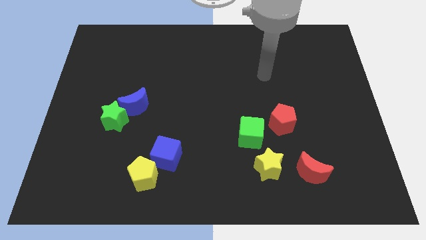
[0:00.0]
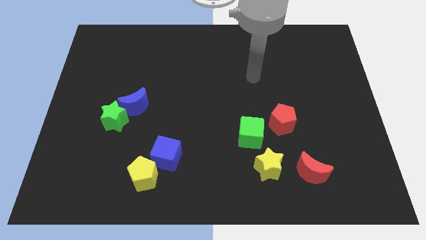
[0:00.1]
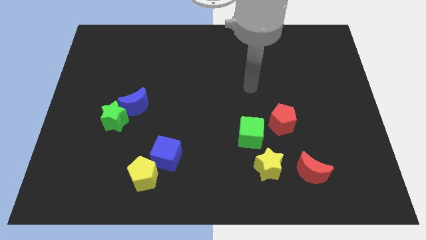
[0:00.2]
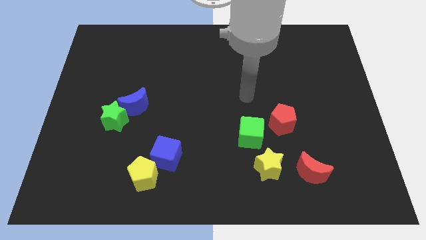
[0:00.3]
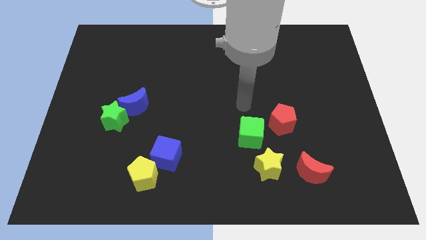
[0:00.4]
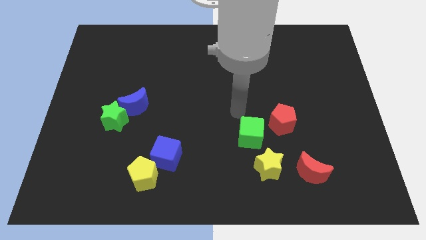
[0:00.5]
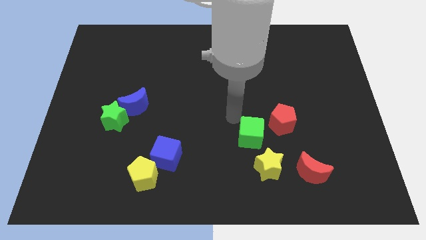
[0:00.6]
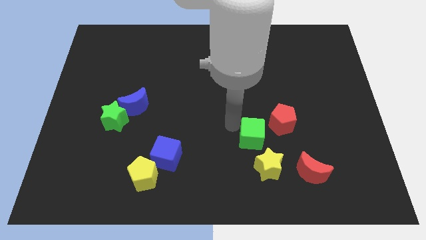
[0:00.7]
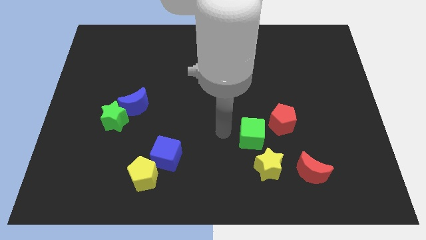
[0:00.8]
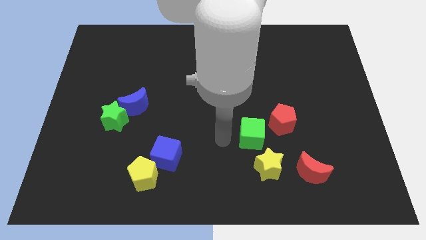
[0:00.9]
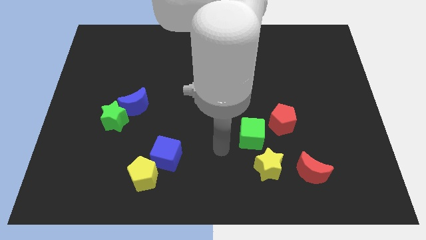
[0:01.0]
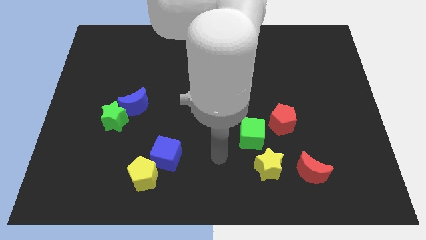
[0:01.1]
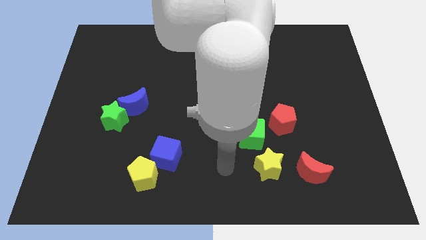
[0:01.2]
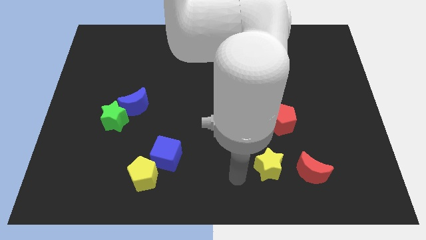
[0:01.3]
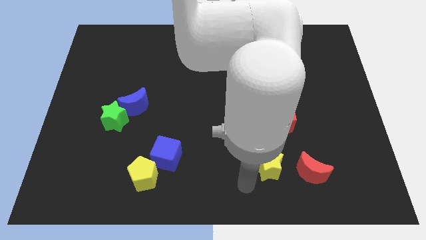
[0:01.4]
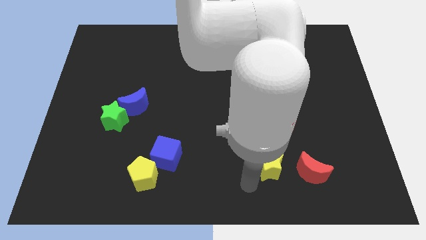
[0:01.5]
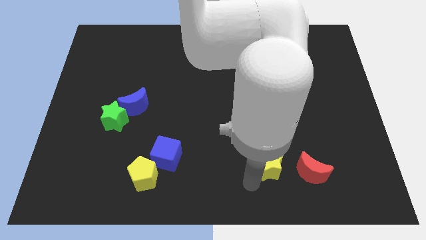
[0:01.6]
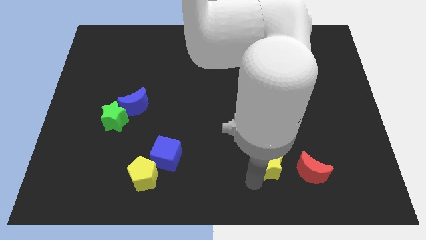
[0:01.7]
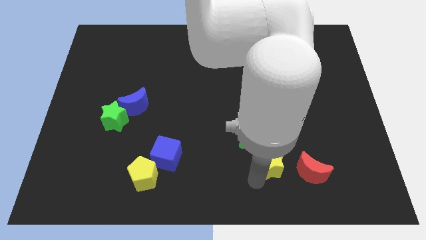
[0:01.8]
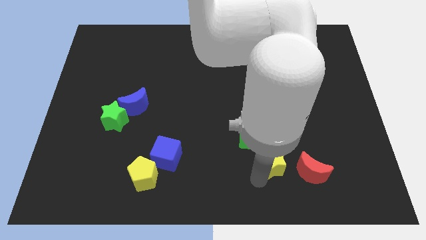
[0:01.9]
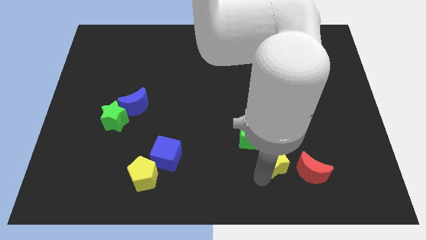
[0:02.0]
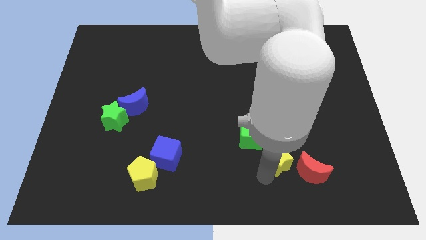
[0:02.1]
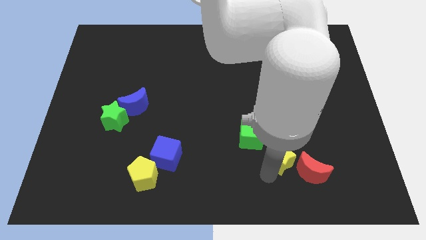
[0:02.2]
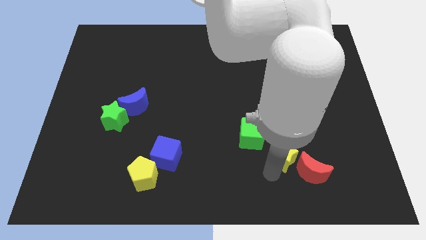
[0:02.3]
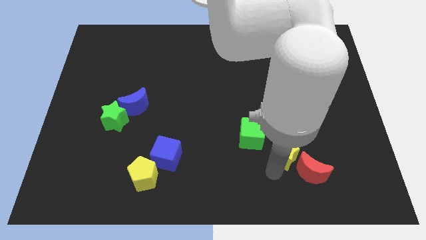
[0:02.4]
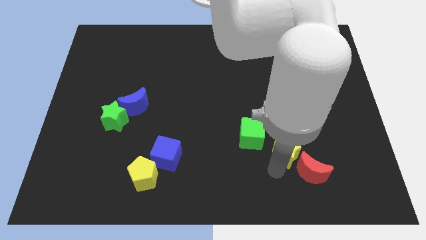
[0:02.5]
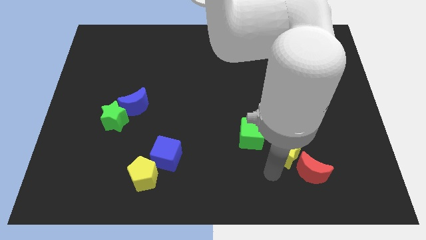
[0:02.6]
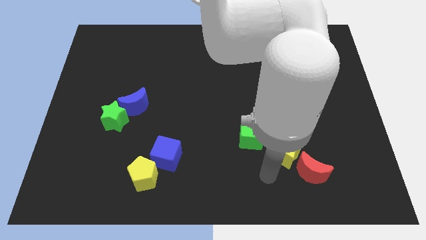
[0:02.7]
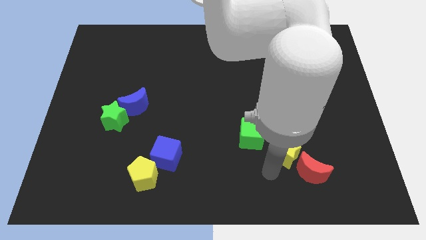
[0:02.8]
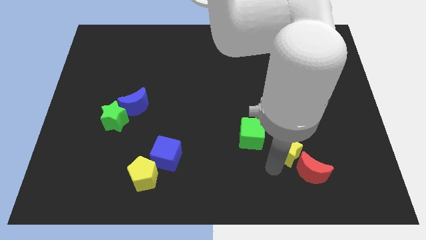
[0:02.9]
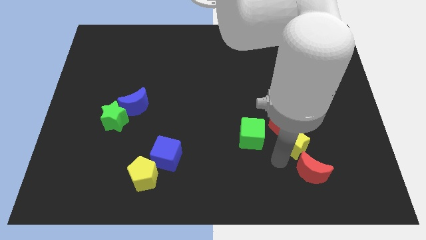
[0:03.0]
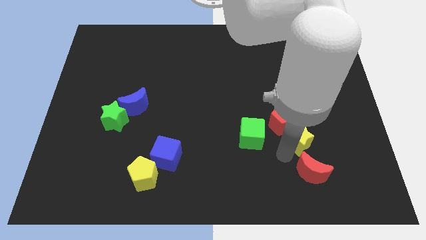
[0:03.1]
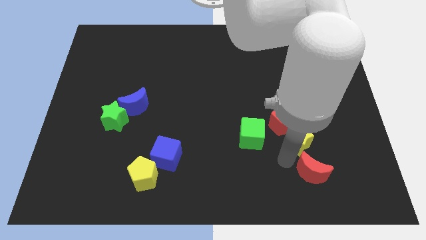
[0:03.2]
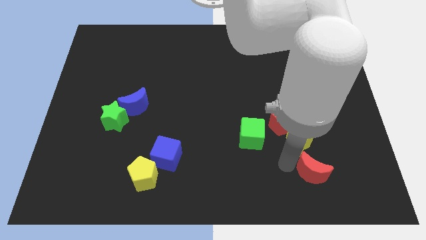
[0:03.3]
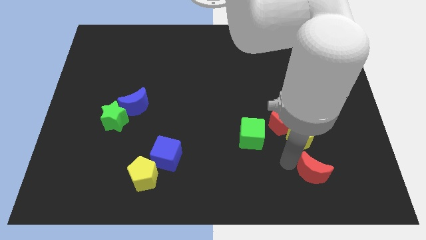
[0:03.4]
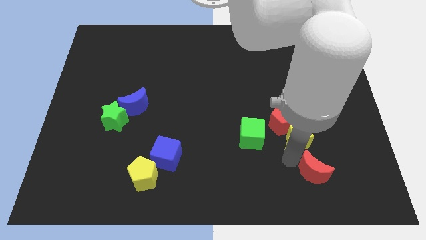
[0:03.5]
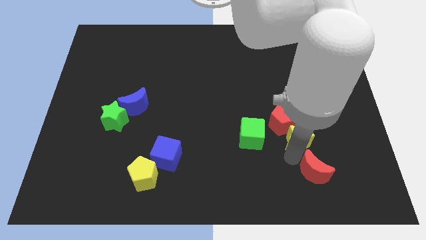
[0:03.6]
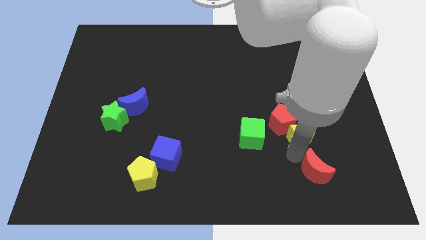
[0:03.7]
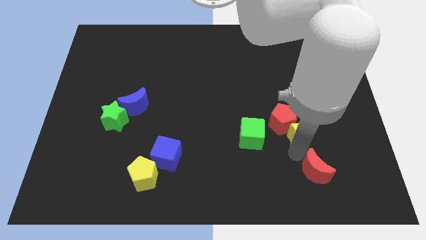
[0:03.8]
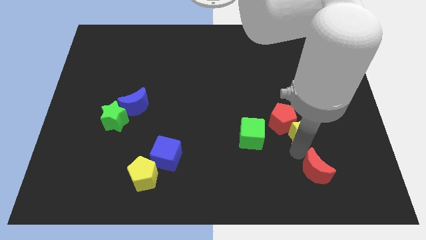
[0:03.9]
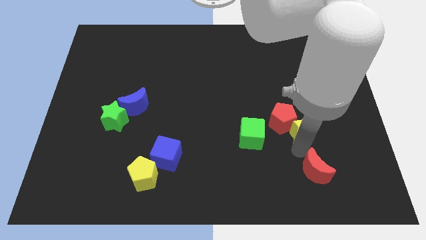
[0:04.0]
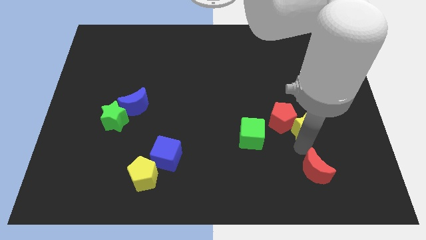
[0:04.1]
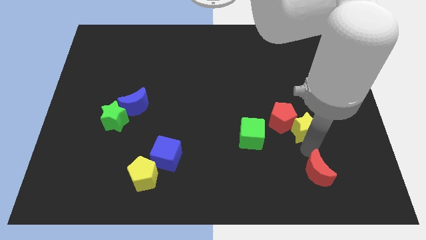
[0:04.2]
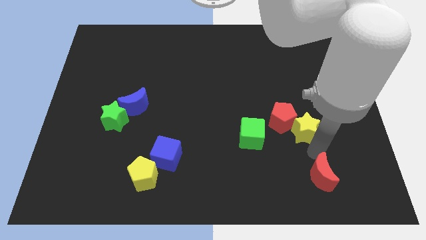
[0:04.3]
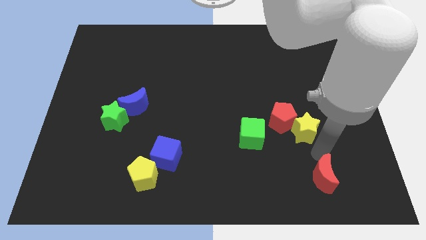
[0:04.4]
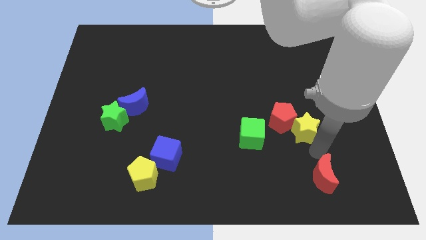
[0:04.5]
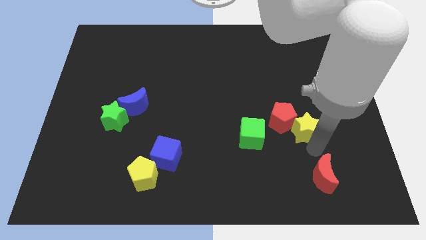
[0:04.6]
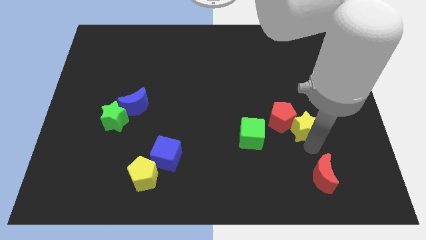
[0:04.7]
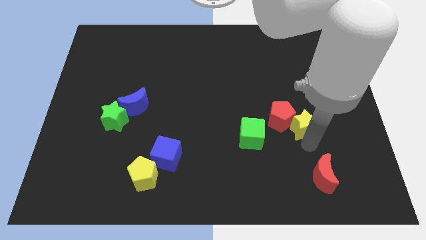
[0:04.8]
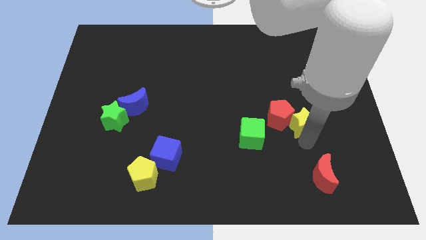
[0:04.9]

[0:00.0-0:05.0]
push the yellow star a little upwards

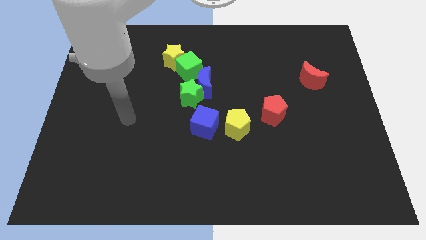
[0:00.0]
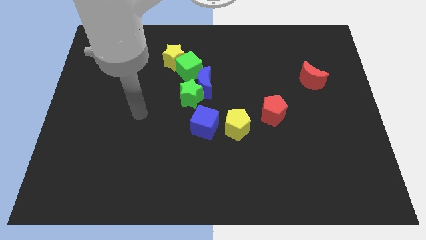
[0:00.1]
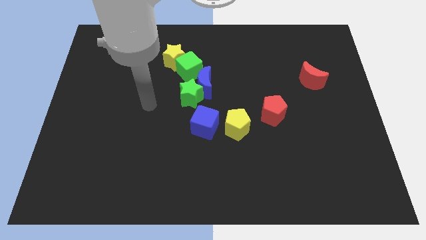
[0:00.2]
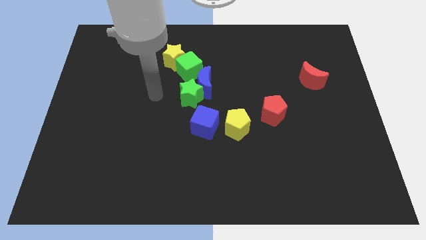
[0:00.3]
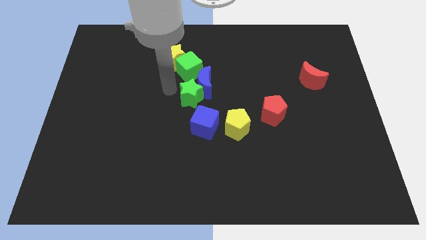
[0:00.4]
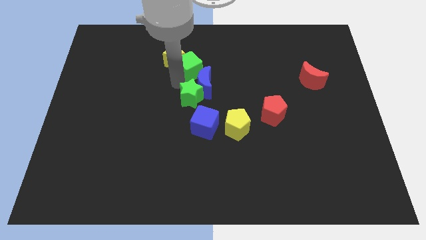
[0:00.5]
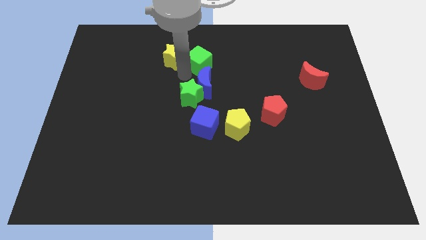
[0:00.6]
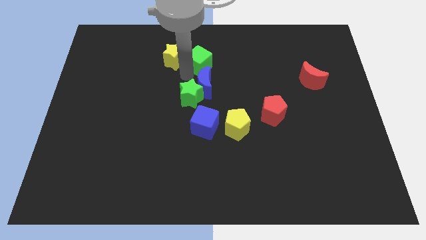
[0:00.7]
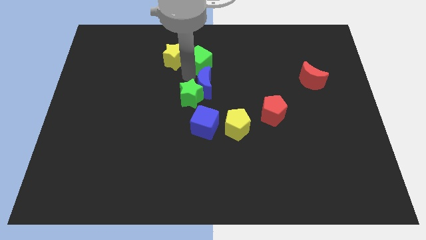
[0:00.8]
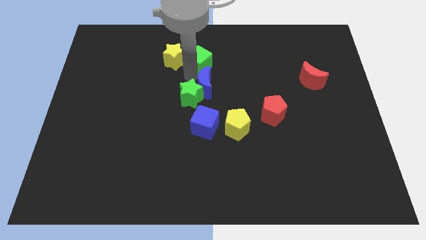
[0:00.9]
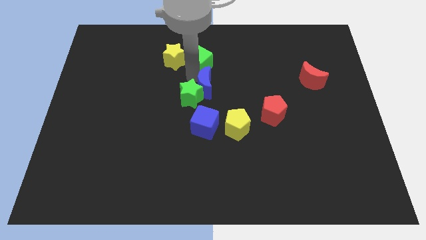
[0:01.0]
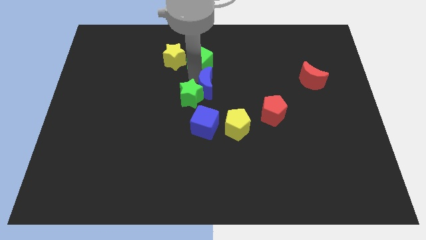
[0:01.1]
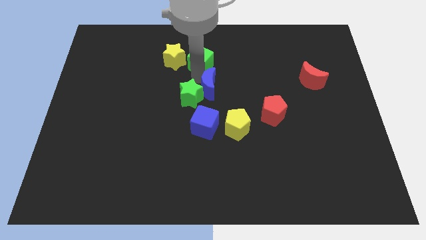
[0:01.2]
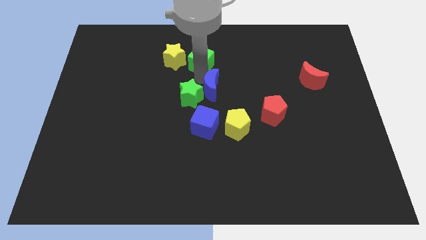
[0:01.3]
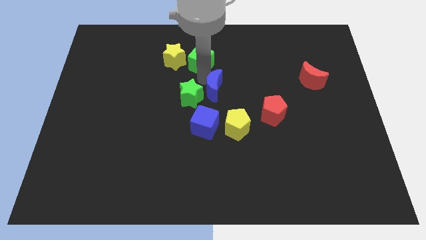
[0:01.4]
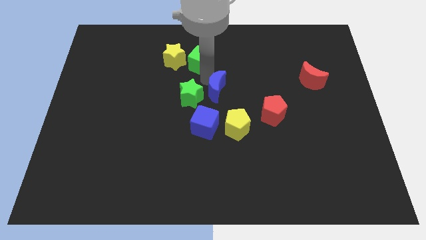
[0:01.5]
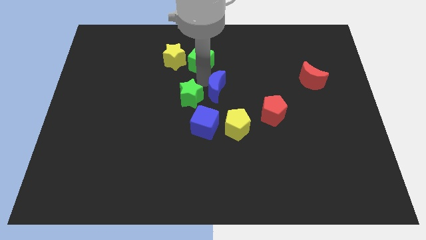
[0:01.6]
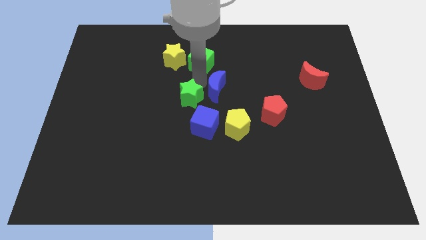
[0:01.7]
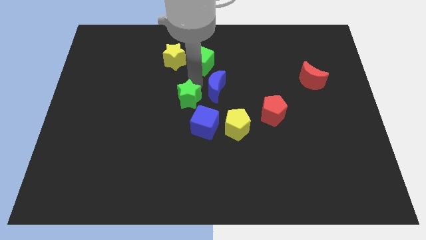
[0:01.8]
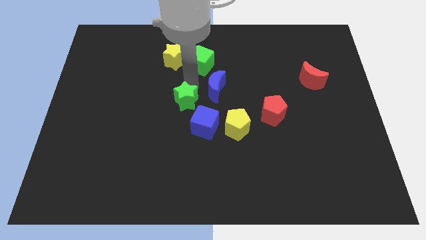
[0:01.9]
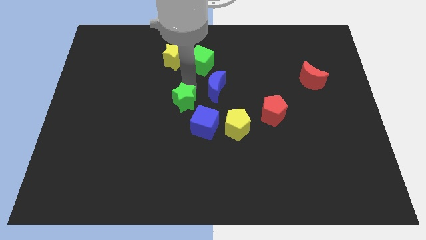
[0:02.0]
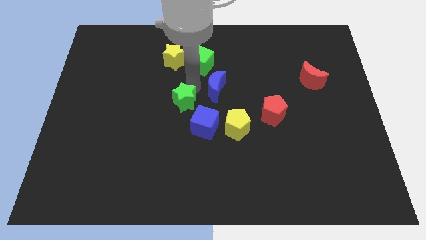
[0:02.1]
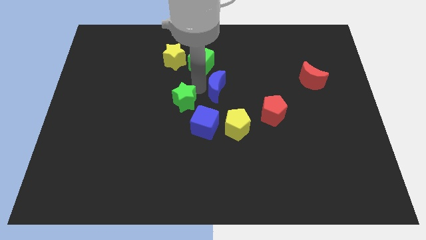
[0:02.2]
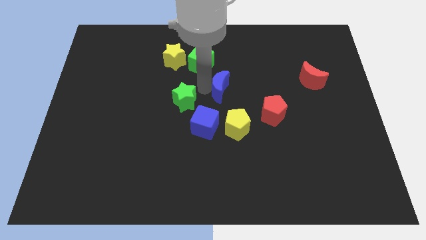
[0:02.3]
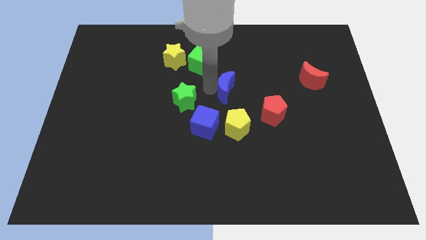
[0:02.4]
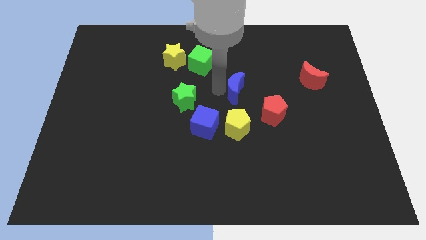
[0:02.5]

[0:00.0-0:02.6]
slightly push the blue moon right

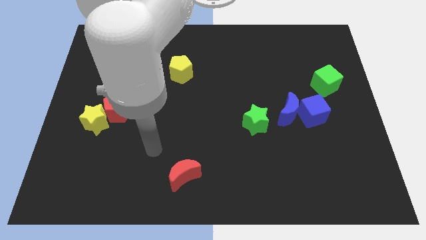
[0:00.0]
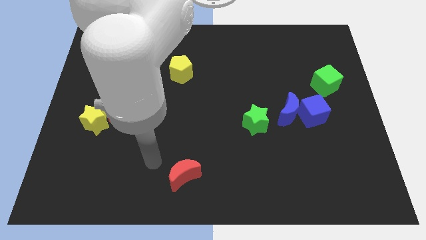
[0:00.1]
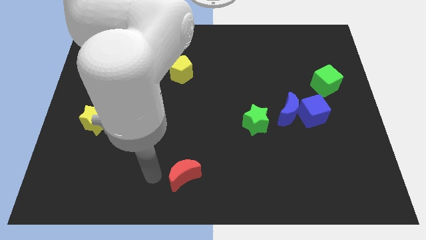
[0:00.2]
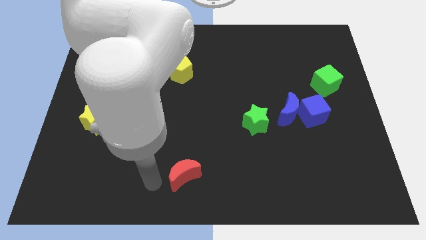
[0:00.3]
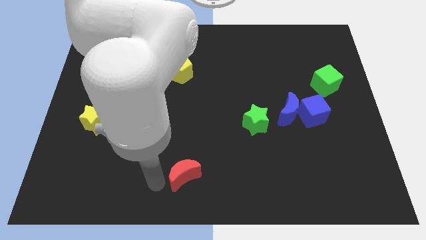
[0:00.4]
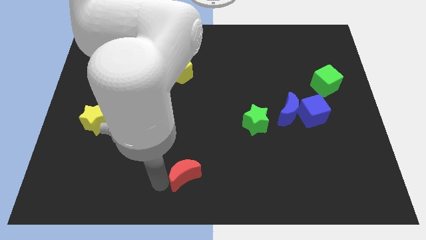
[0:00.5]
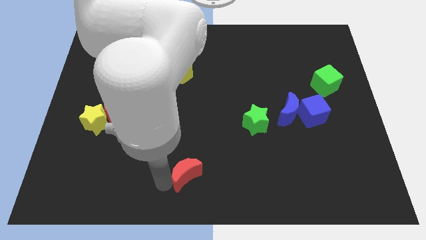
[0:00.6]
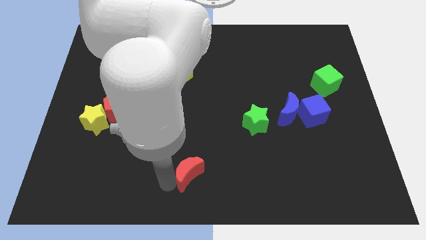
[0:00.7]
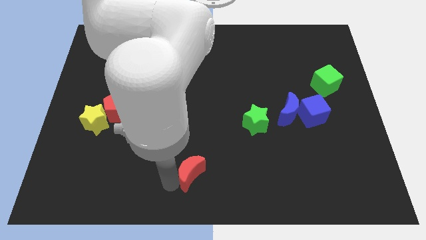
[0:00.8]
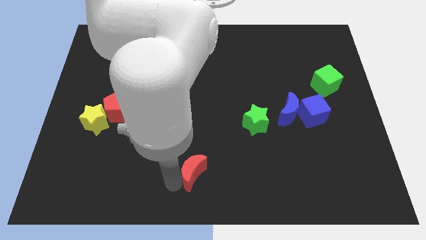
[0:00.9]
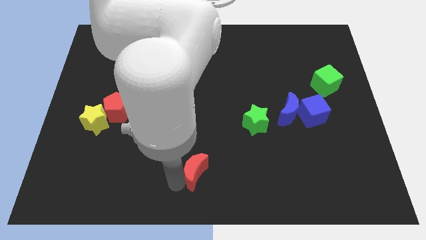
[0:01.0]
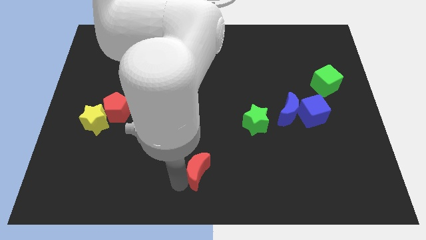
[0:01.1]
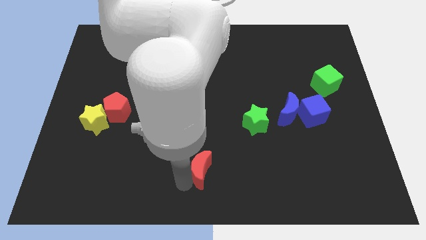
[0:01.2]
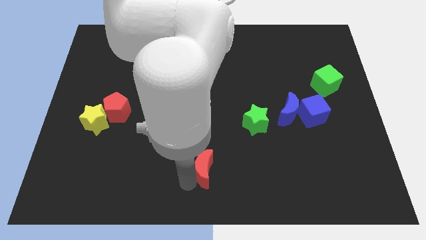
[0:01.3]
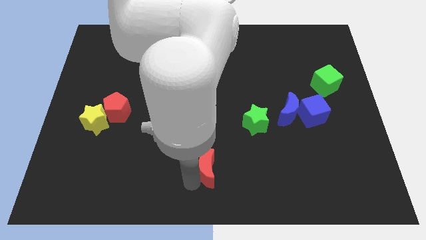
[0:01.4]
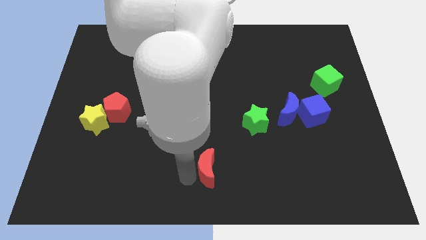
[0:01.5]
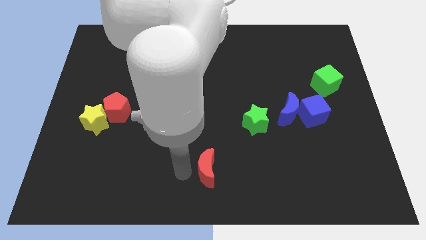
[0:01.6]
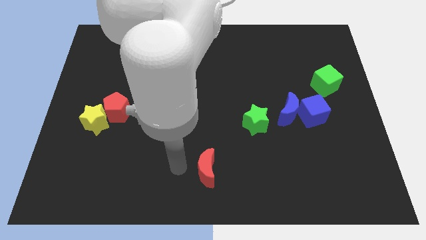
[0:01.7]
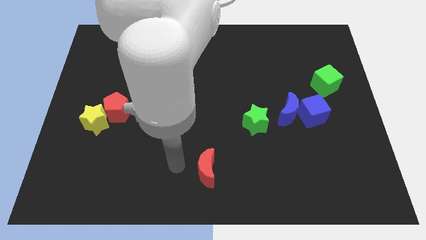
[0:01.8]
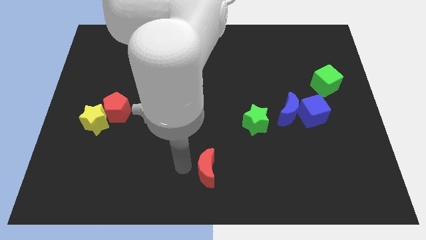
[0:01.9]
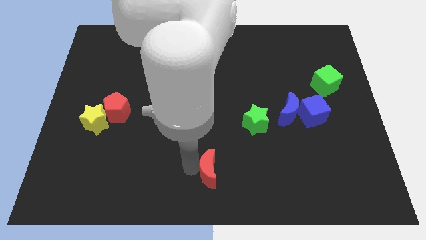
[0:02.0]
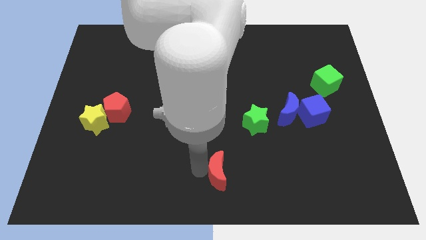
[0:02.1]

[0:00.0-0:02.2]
slightly move the red moon to the right
